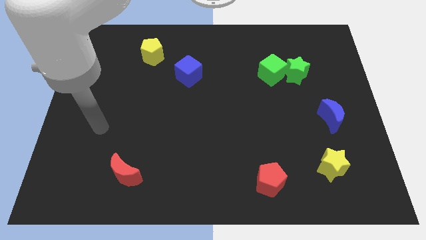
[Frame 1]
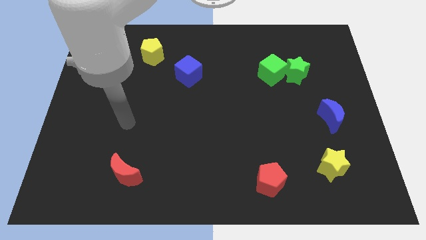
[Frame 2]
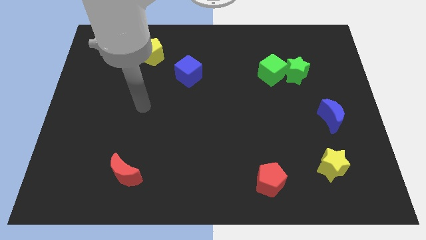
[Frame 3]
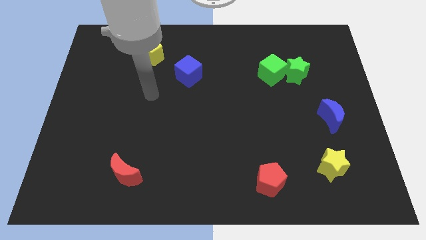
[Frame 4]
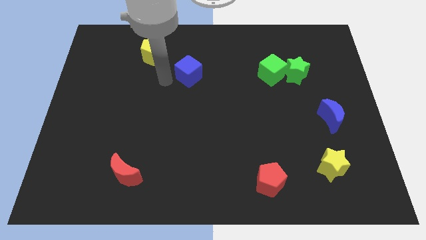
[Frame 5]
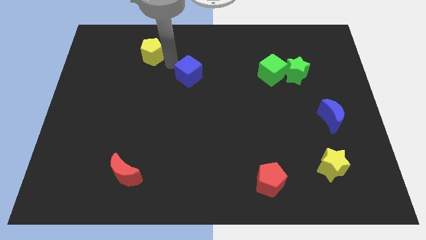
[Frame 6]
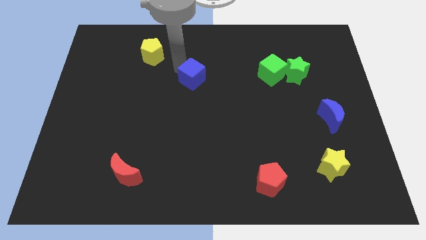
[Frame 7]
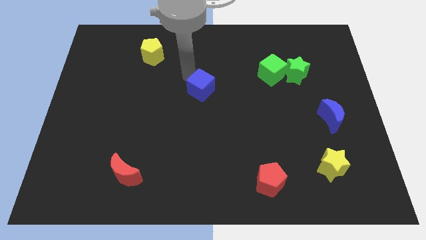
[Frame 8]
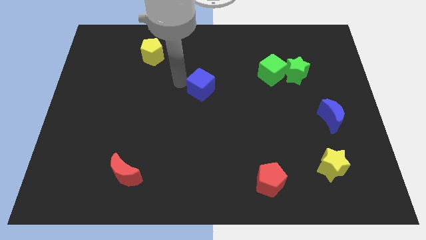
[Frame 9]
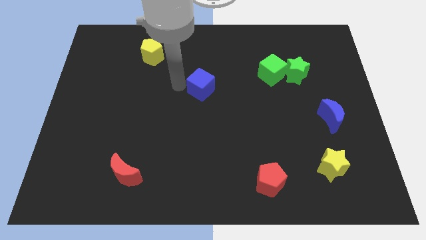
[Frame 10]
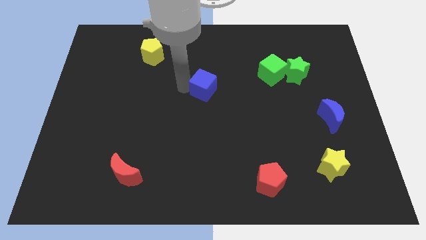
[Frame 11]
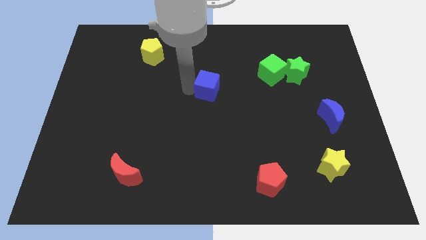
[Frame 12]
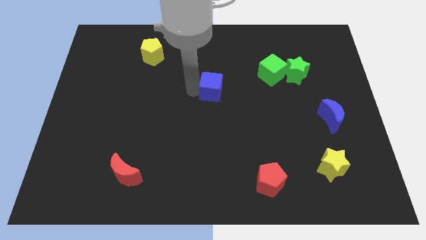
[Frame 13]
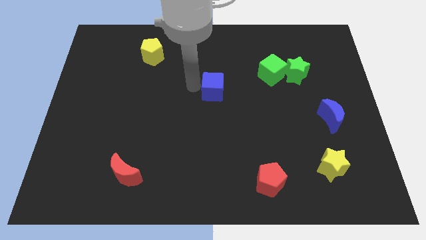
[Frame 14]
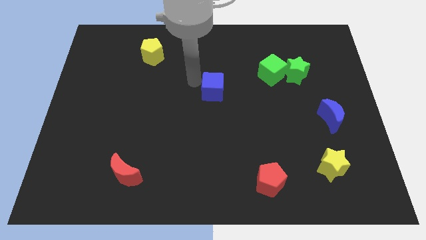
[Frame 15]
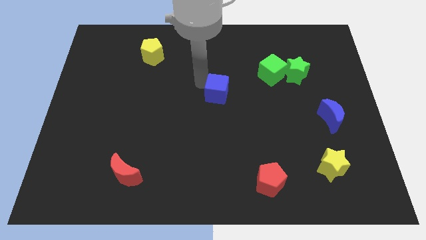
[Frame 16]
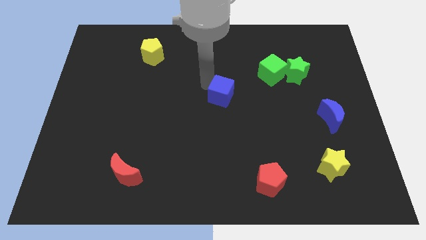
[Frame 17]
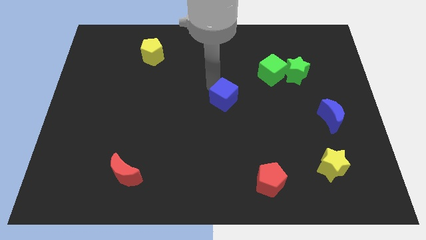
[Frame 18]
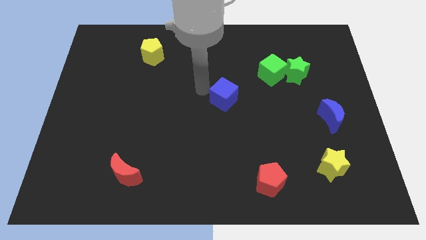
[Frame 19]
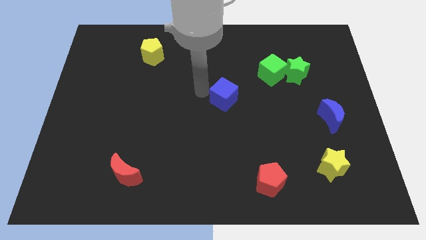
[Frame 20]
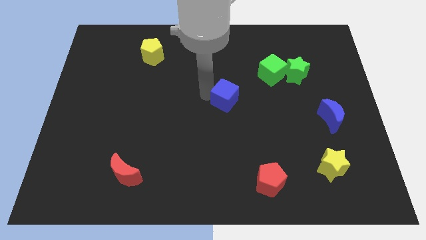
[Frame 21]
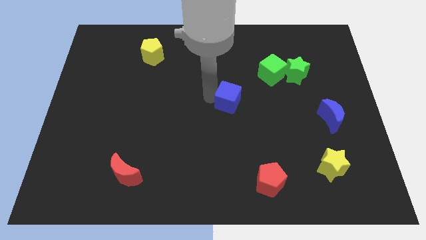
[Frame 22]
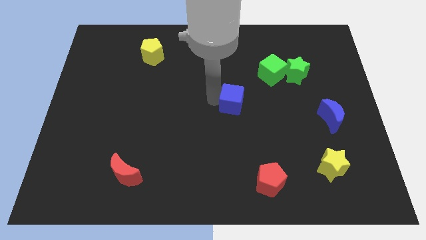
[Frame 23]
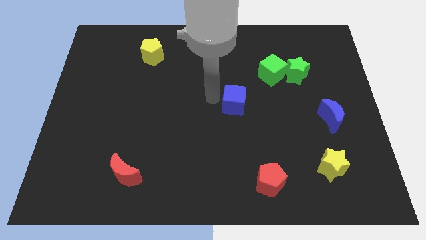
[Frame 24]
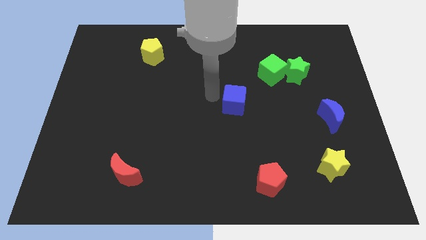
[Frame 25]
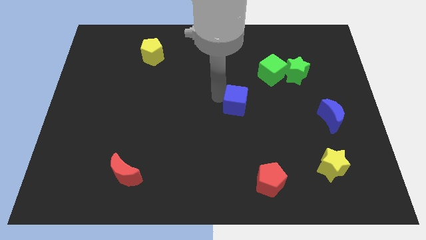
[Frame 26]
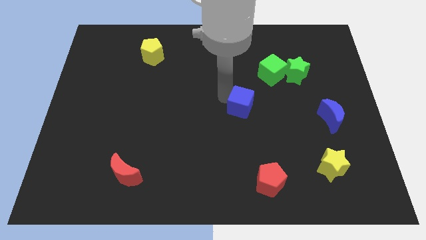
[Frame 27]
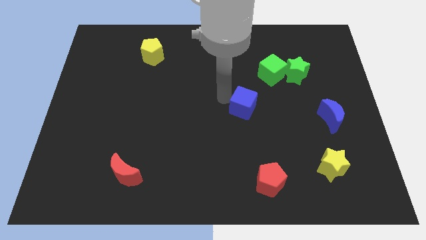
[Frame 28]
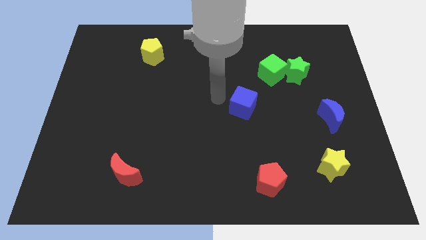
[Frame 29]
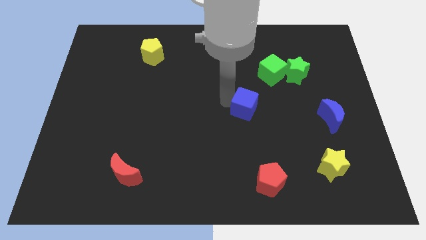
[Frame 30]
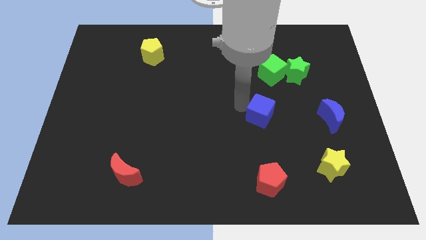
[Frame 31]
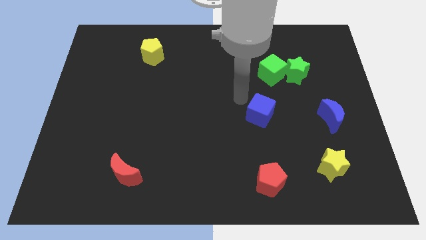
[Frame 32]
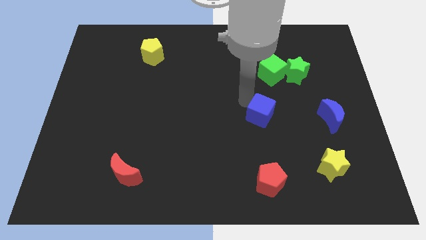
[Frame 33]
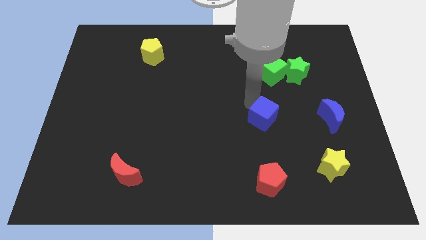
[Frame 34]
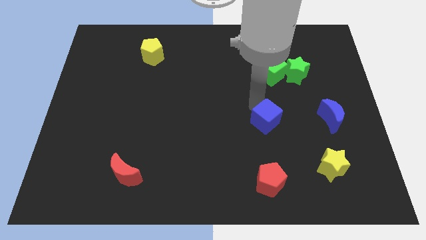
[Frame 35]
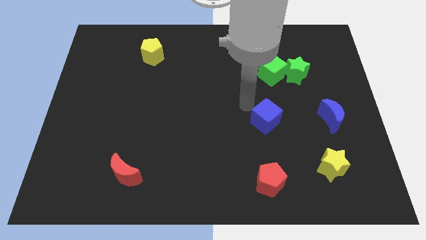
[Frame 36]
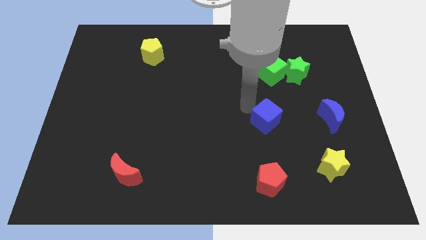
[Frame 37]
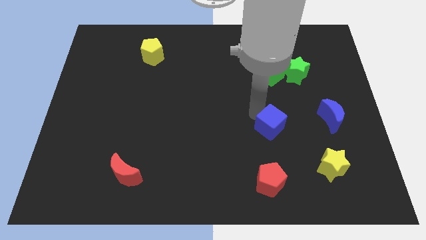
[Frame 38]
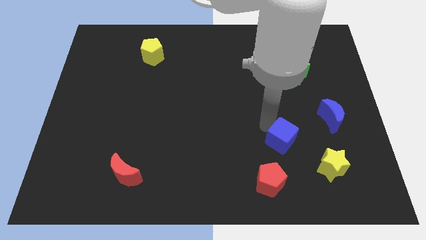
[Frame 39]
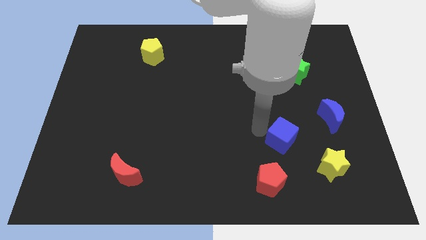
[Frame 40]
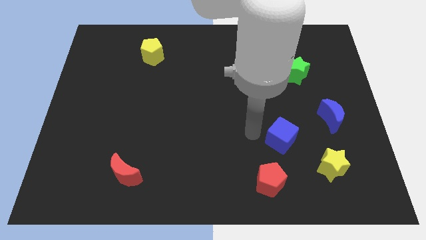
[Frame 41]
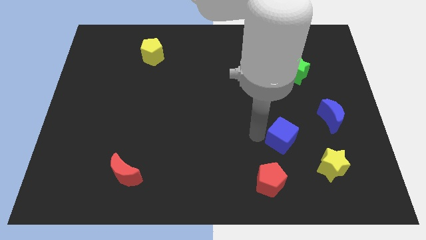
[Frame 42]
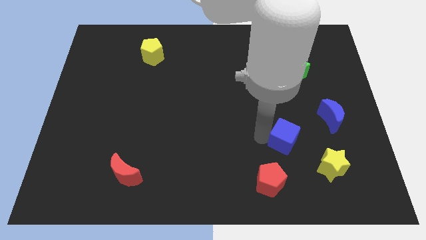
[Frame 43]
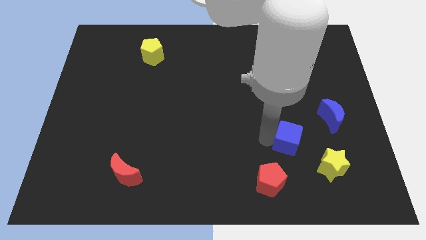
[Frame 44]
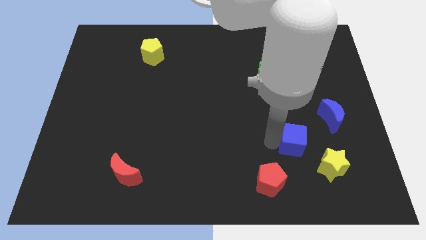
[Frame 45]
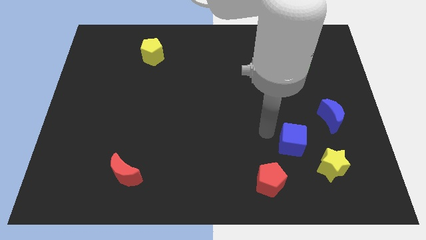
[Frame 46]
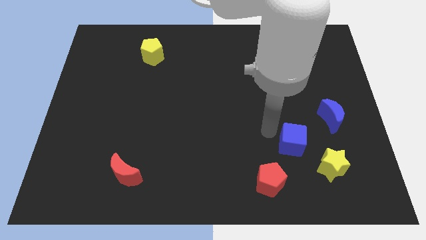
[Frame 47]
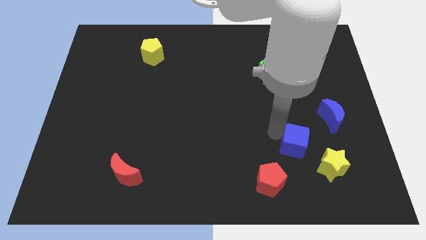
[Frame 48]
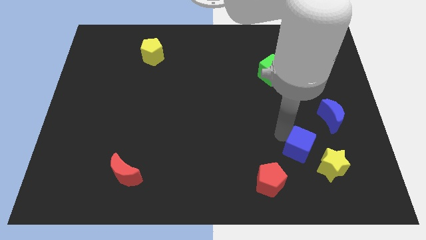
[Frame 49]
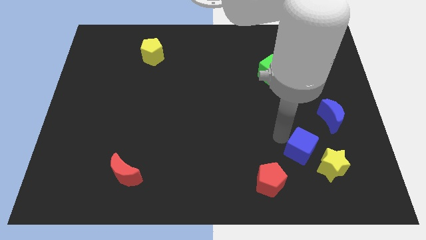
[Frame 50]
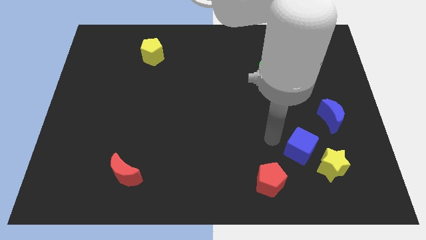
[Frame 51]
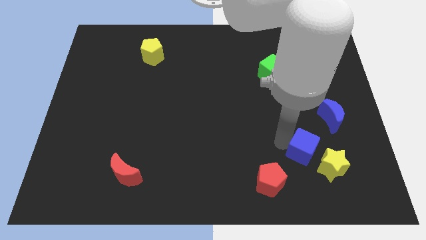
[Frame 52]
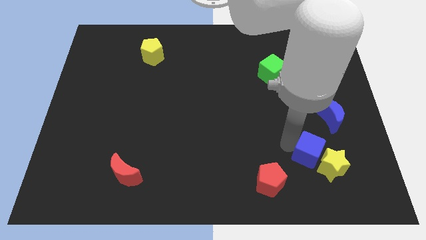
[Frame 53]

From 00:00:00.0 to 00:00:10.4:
slide the blue cube to the yellow star

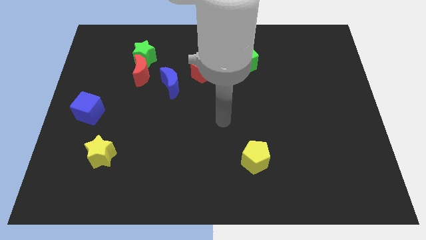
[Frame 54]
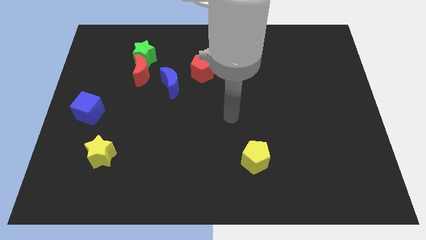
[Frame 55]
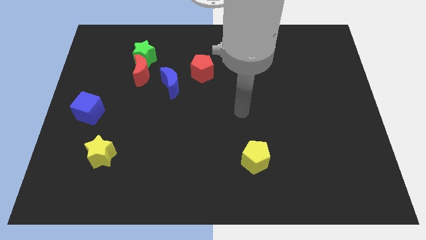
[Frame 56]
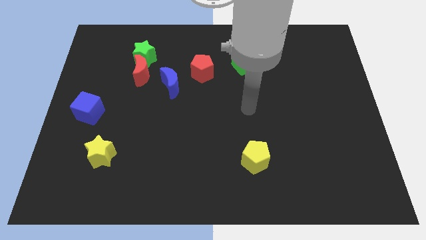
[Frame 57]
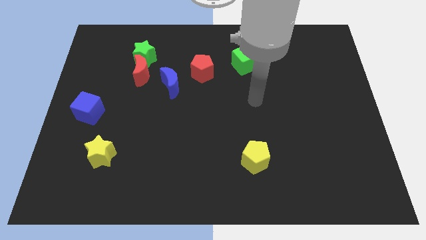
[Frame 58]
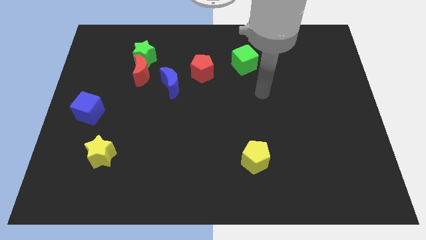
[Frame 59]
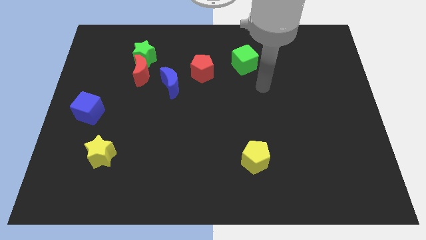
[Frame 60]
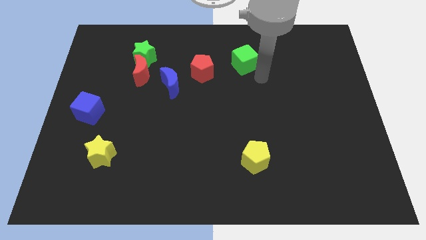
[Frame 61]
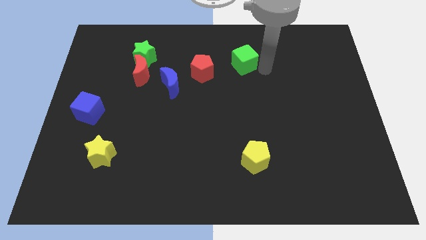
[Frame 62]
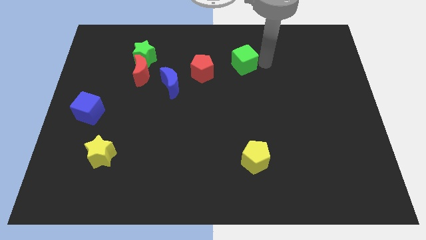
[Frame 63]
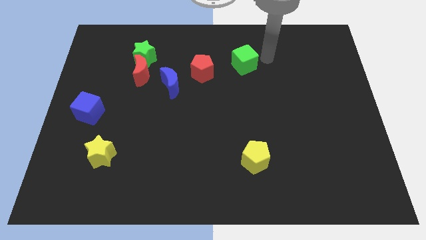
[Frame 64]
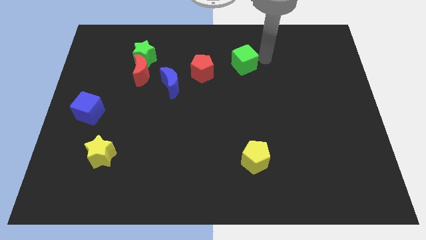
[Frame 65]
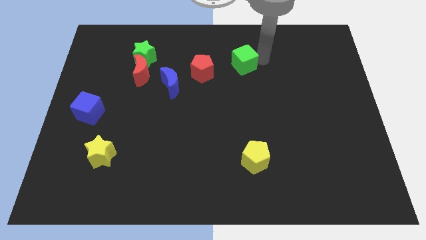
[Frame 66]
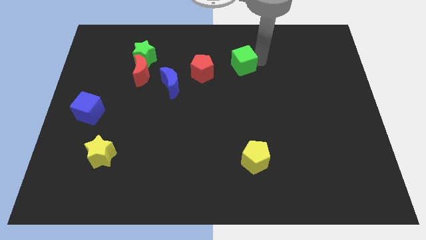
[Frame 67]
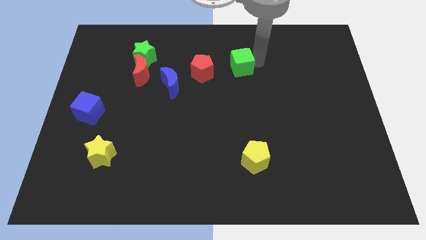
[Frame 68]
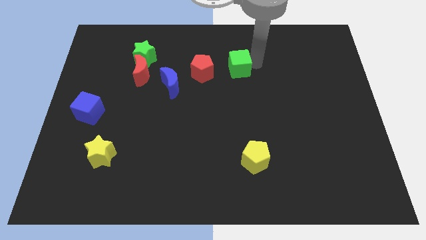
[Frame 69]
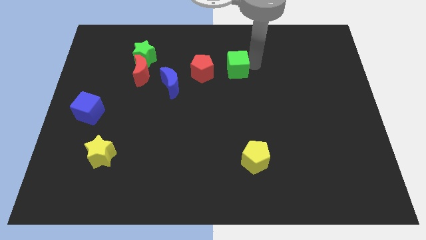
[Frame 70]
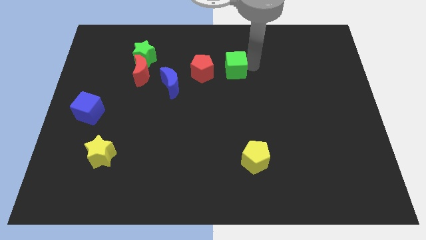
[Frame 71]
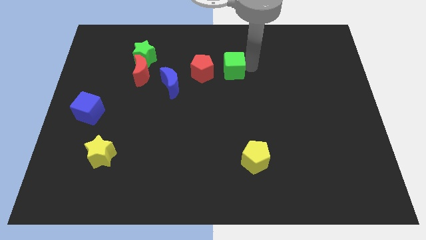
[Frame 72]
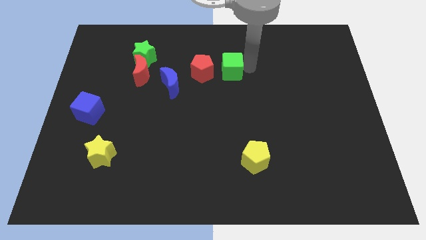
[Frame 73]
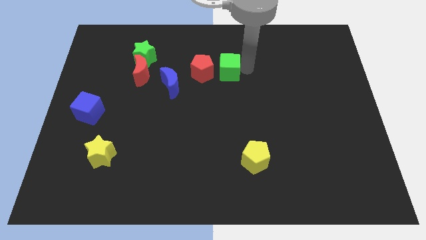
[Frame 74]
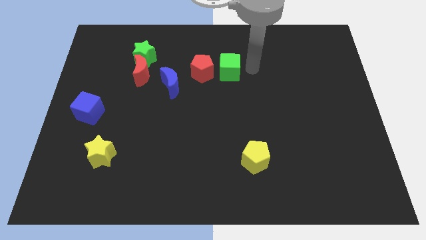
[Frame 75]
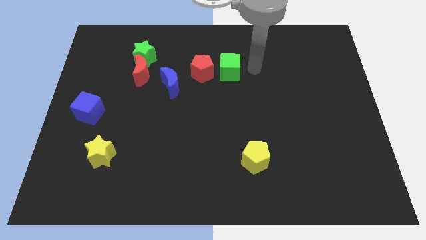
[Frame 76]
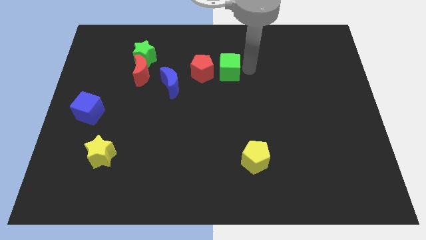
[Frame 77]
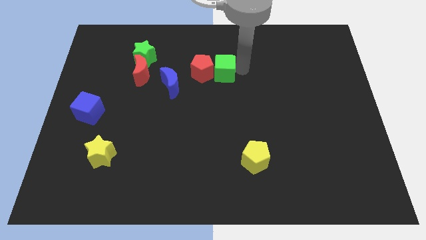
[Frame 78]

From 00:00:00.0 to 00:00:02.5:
slide the green cube to the red pentagon

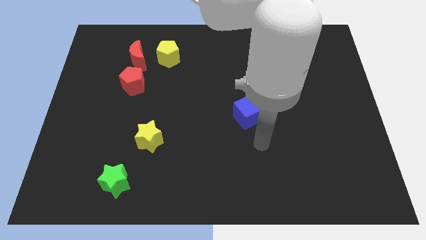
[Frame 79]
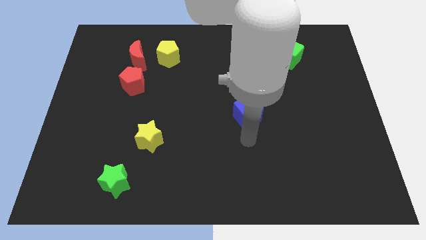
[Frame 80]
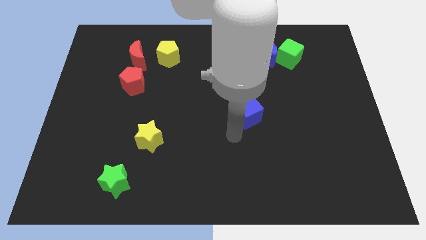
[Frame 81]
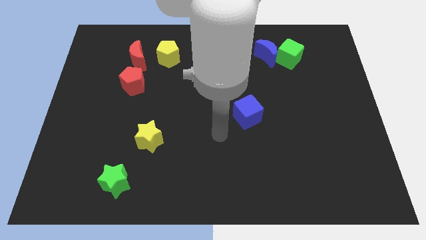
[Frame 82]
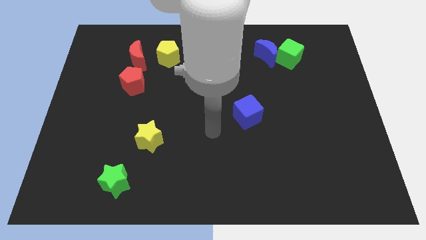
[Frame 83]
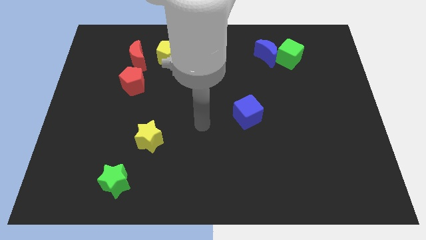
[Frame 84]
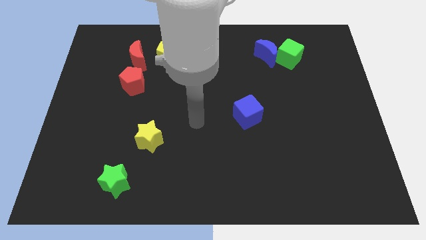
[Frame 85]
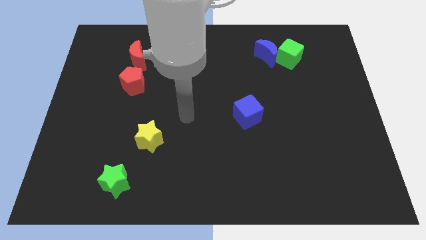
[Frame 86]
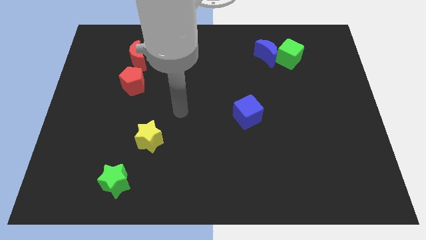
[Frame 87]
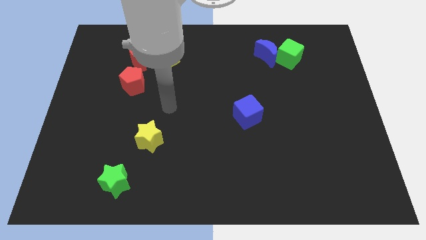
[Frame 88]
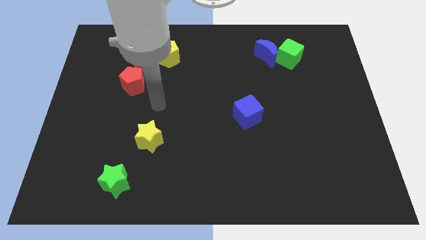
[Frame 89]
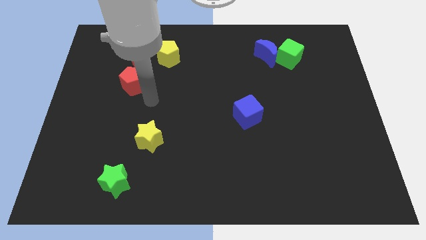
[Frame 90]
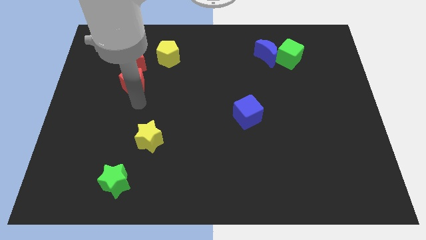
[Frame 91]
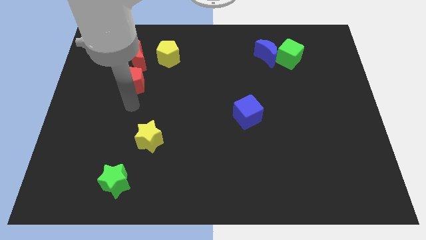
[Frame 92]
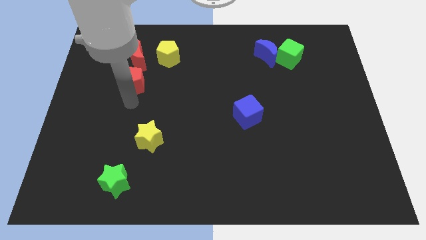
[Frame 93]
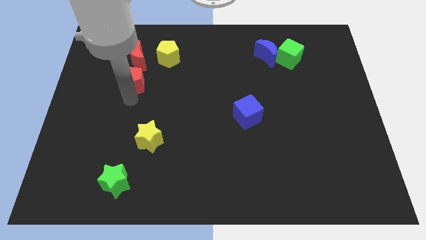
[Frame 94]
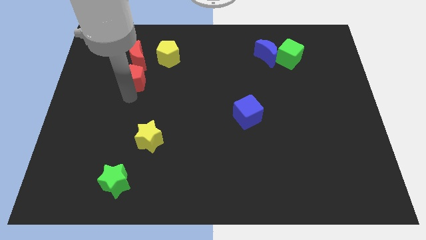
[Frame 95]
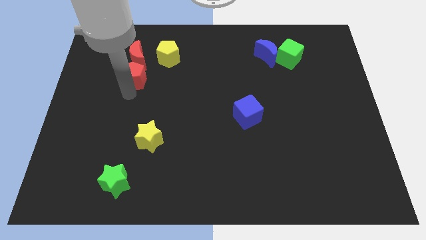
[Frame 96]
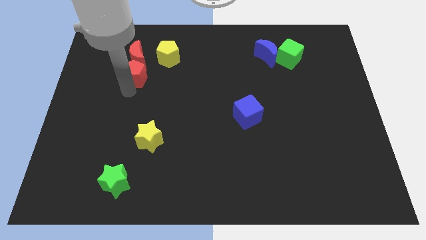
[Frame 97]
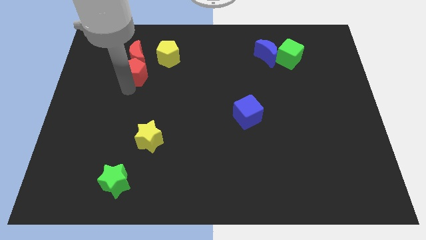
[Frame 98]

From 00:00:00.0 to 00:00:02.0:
slide the red pentagon towards the red moon
